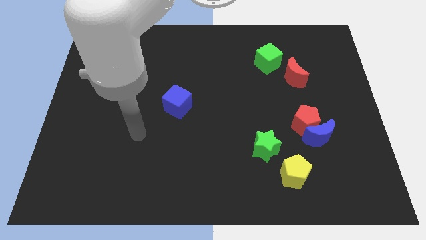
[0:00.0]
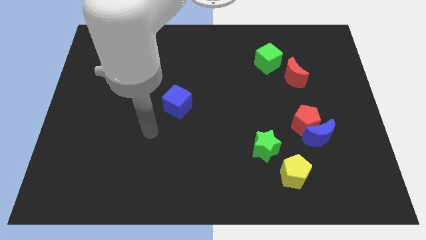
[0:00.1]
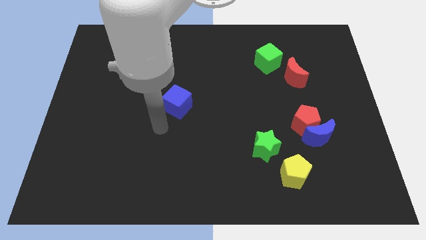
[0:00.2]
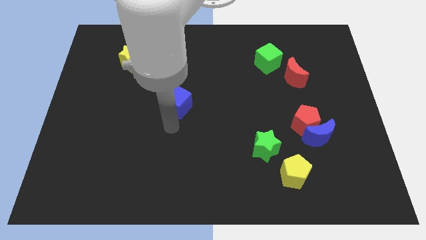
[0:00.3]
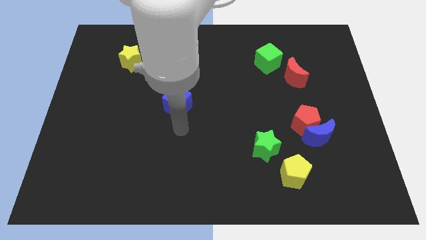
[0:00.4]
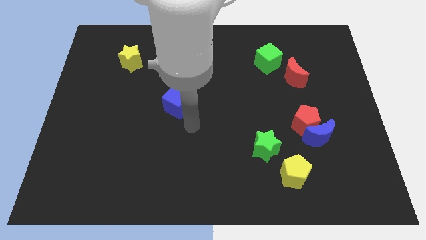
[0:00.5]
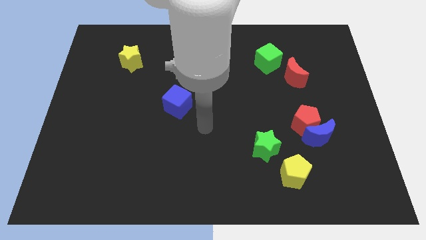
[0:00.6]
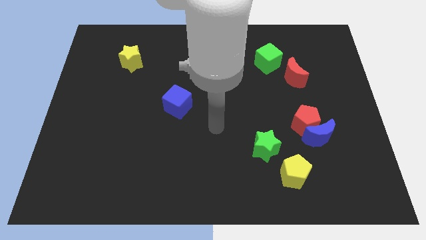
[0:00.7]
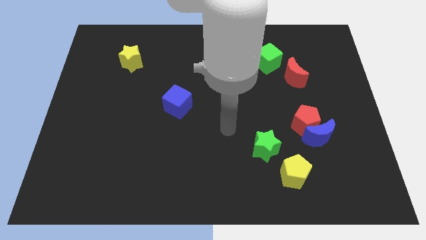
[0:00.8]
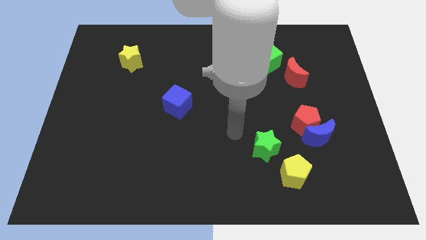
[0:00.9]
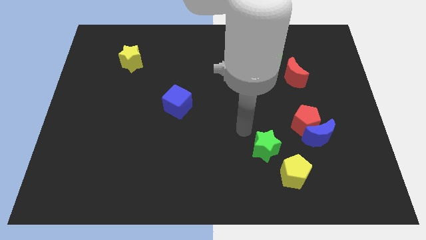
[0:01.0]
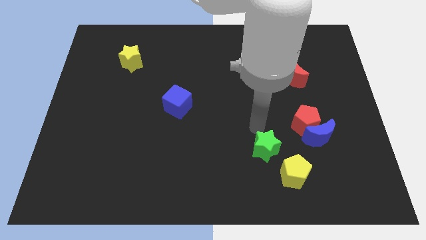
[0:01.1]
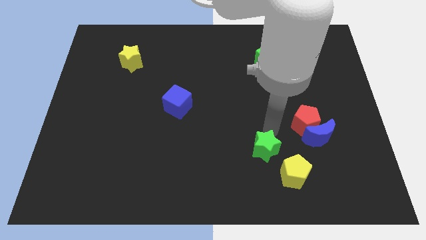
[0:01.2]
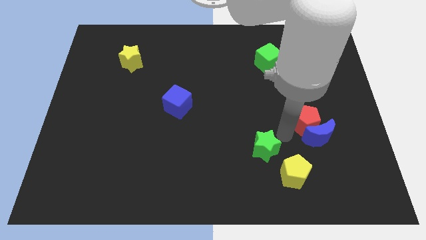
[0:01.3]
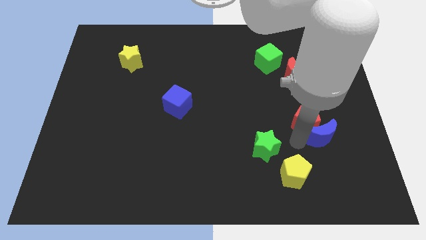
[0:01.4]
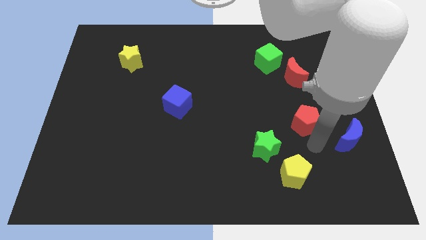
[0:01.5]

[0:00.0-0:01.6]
separate the red pentagon from the blue moon

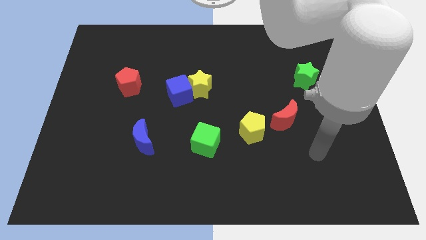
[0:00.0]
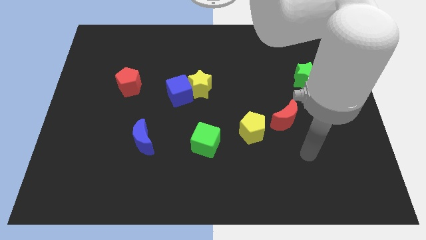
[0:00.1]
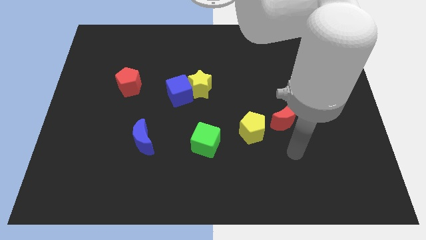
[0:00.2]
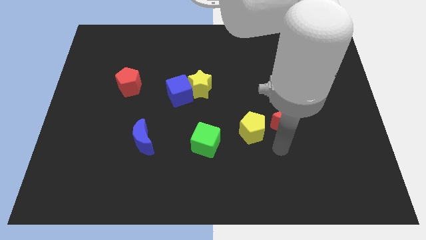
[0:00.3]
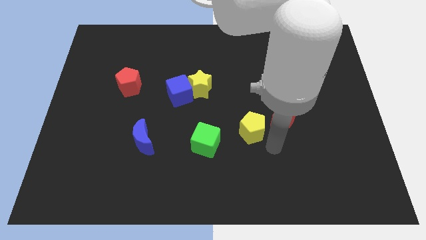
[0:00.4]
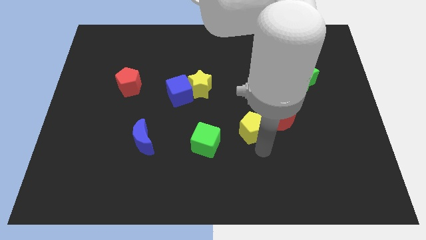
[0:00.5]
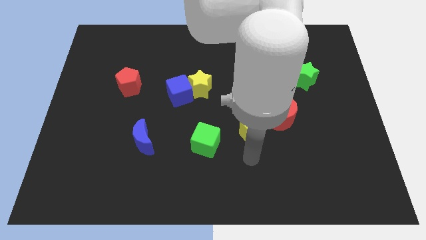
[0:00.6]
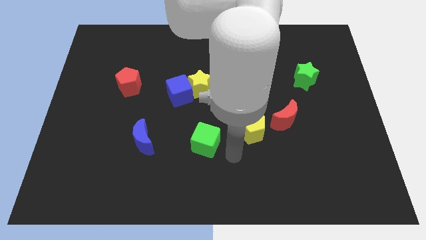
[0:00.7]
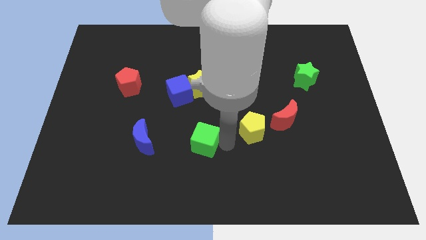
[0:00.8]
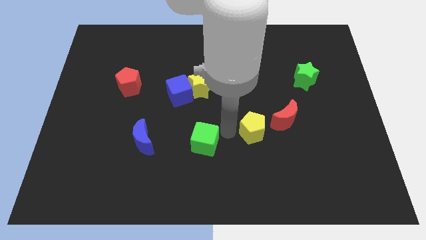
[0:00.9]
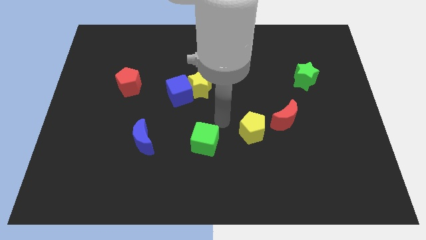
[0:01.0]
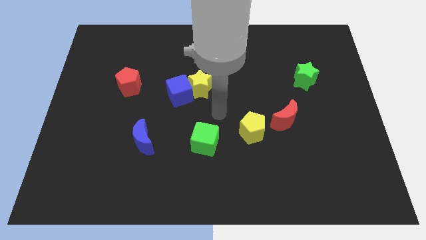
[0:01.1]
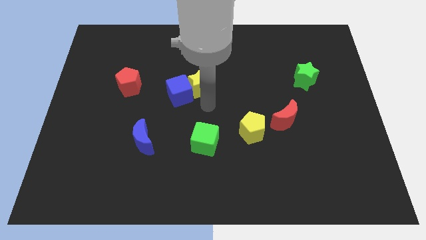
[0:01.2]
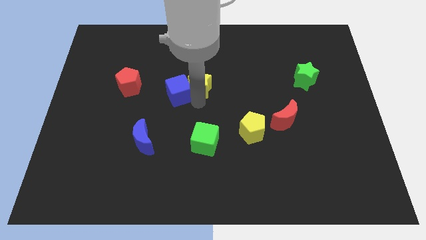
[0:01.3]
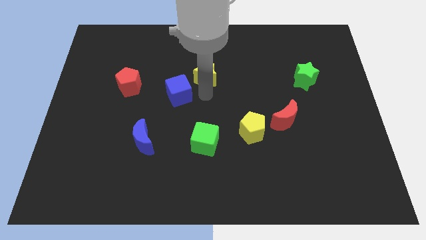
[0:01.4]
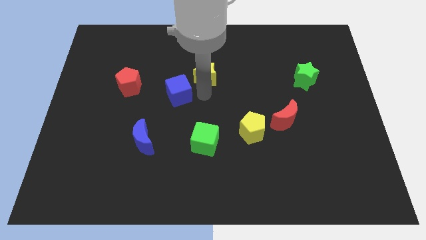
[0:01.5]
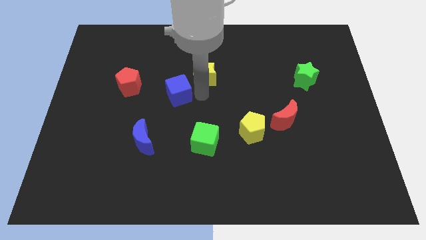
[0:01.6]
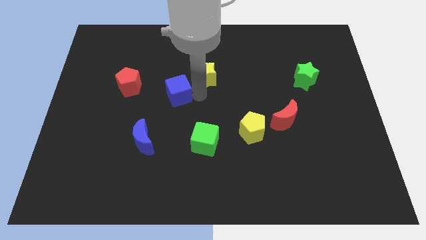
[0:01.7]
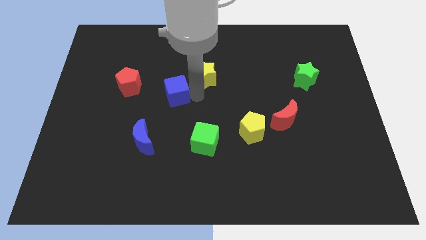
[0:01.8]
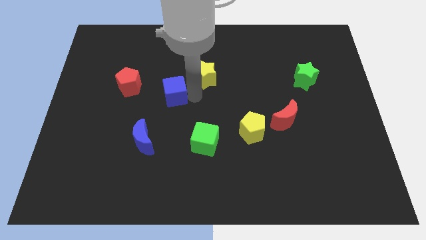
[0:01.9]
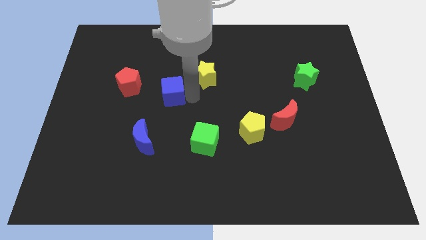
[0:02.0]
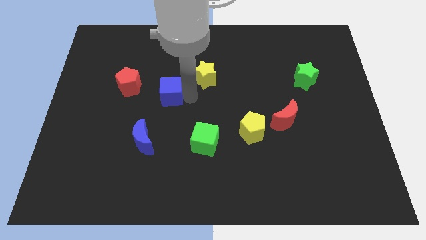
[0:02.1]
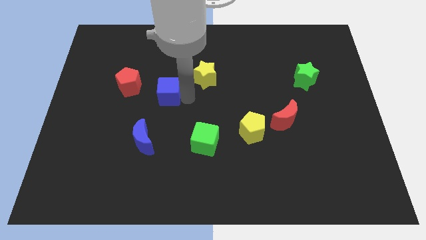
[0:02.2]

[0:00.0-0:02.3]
pull the blue cube apart from the yellow star

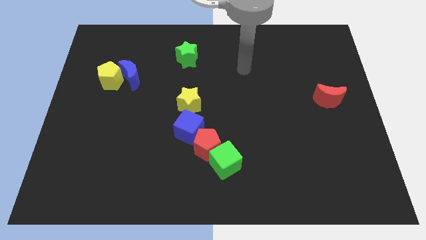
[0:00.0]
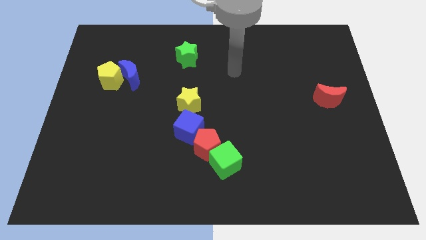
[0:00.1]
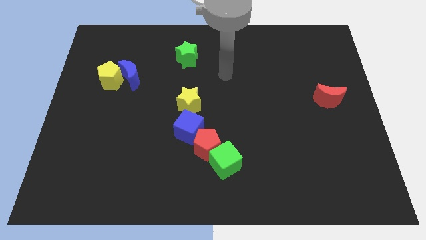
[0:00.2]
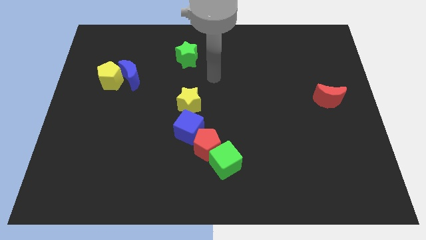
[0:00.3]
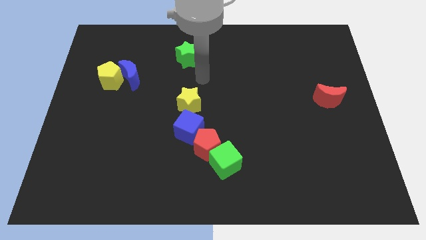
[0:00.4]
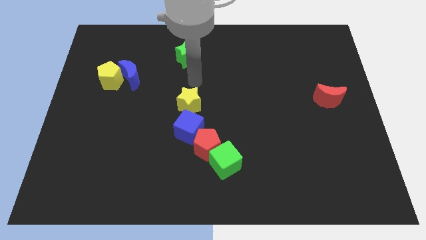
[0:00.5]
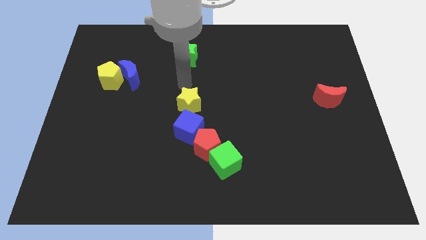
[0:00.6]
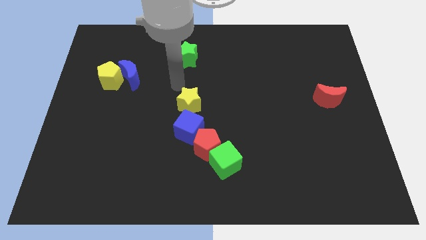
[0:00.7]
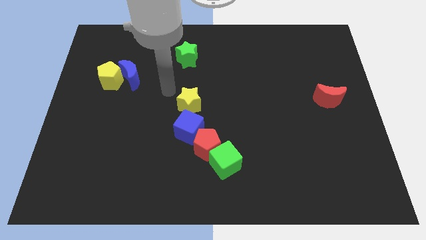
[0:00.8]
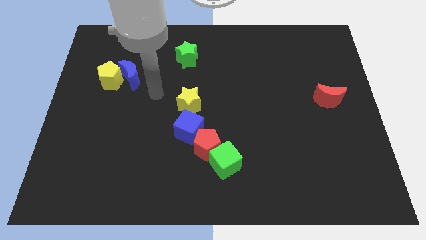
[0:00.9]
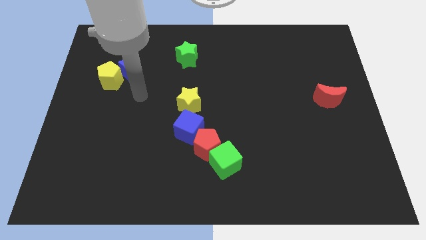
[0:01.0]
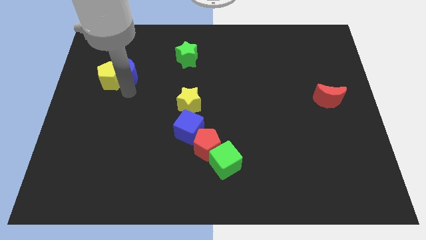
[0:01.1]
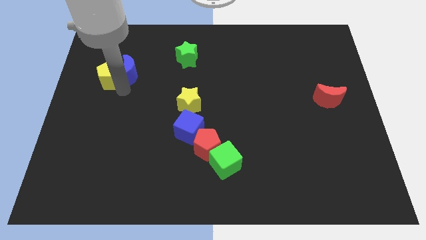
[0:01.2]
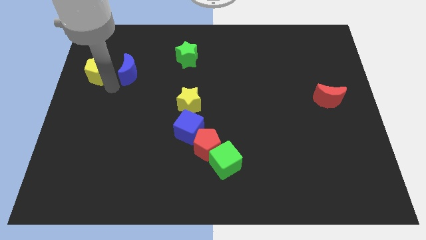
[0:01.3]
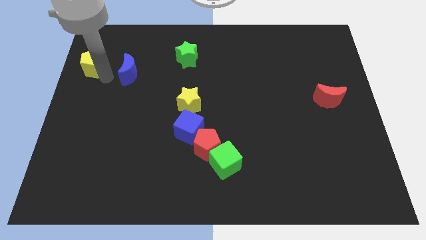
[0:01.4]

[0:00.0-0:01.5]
separate the blue moon from the yellow pentagon

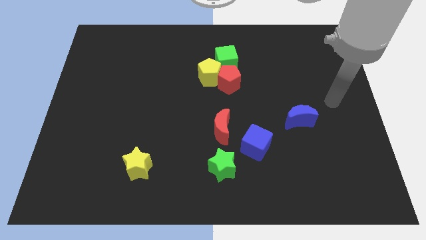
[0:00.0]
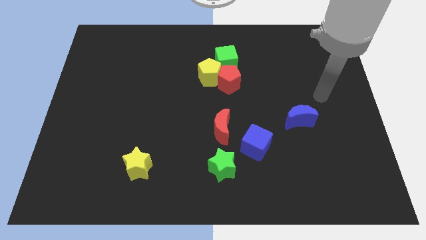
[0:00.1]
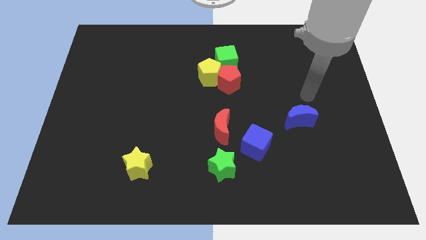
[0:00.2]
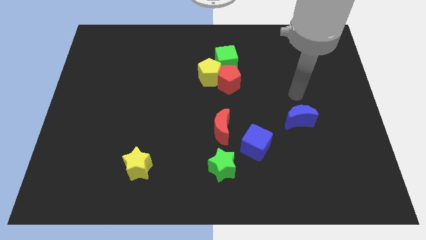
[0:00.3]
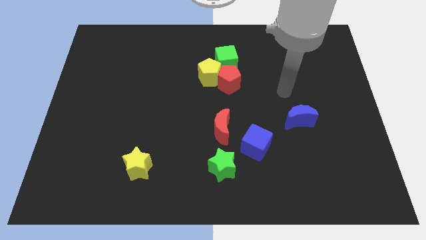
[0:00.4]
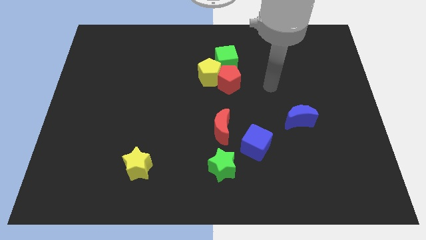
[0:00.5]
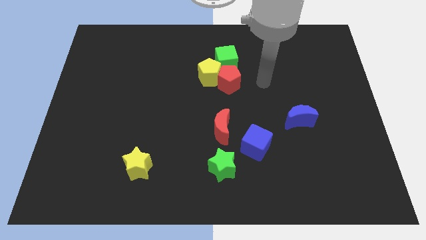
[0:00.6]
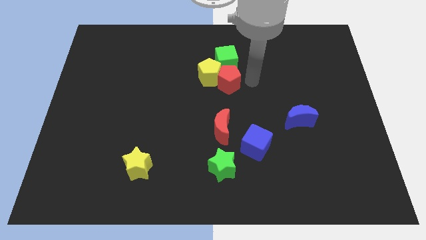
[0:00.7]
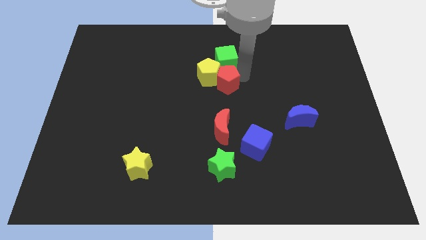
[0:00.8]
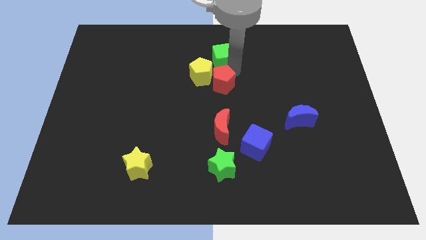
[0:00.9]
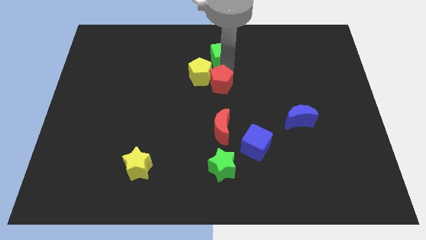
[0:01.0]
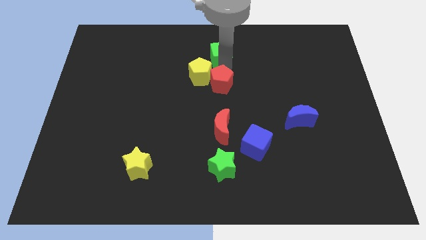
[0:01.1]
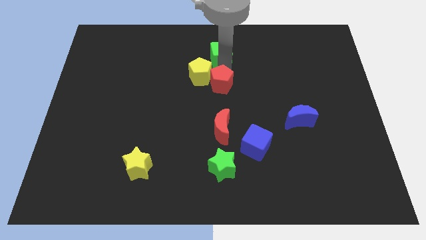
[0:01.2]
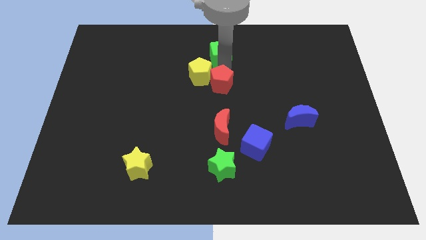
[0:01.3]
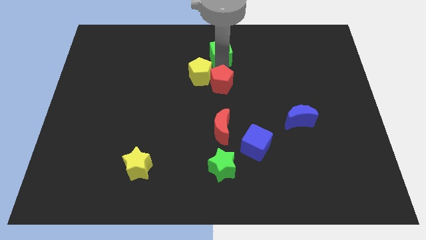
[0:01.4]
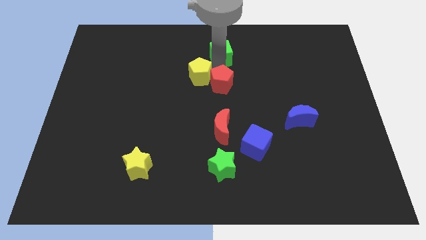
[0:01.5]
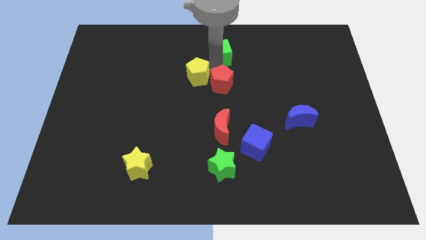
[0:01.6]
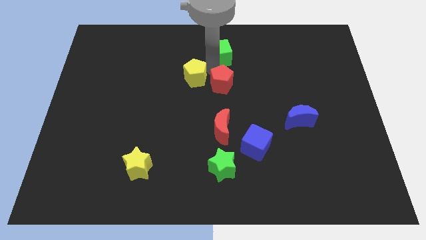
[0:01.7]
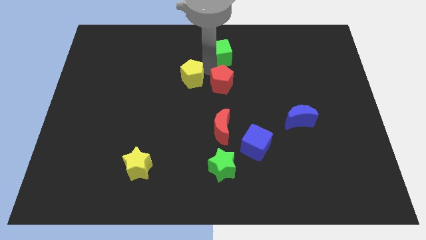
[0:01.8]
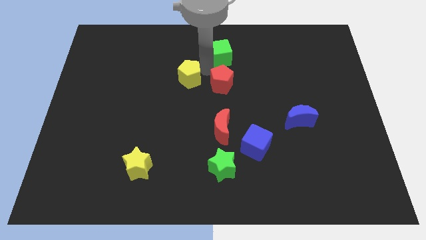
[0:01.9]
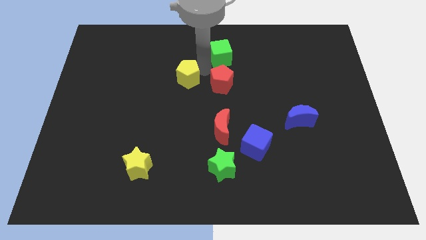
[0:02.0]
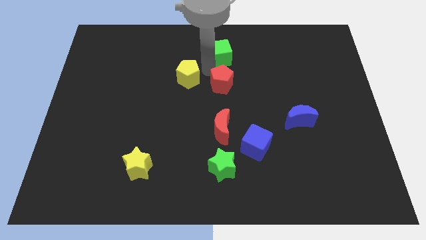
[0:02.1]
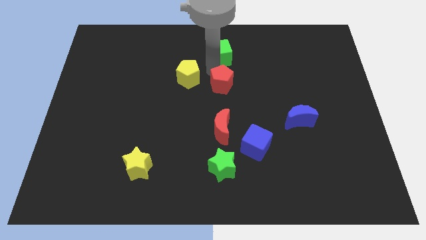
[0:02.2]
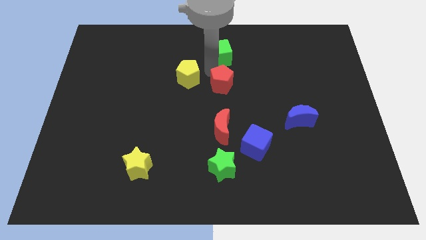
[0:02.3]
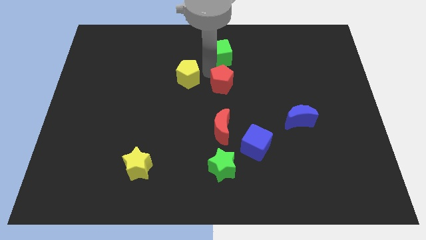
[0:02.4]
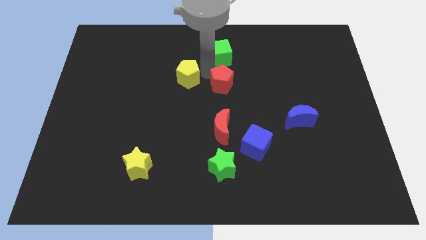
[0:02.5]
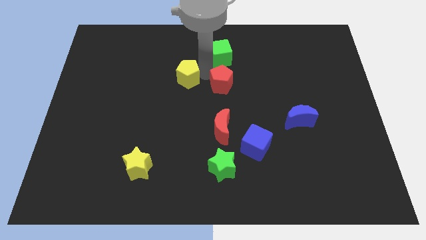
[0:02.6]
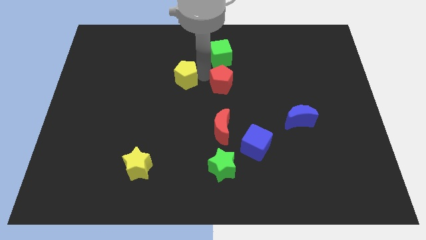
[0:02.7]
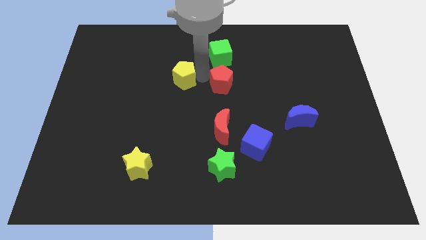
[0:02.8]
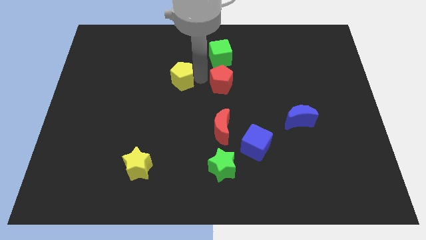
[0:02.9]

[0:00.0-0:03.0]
move the yellow pentagon away from the red pentagon and green cube

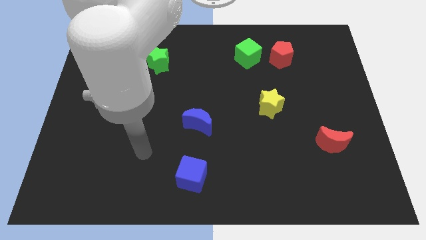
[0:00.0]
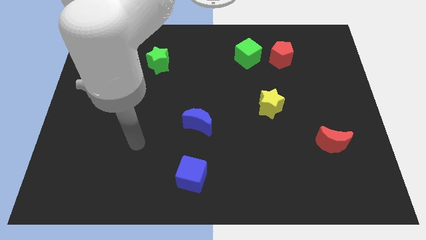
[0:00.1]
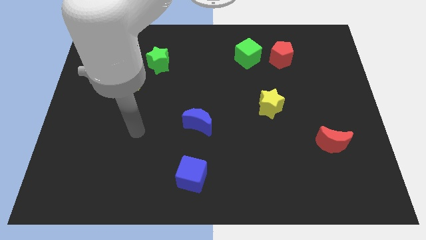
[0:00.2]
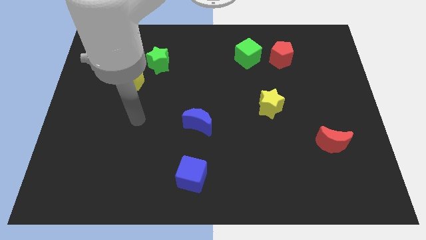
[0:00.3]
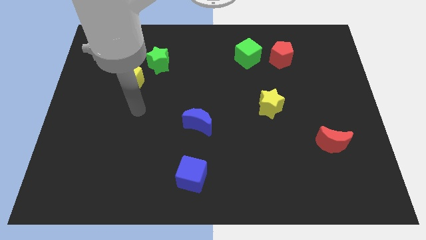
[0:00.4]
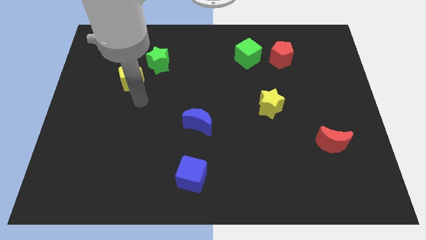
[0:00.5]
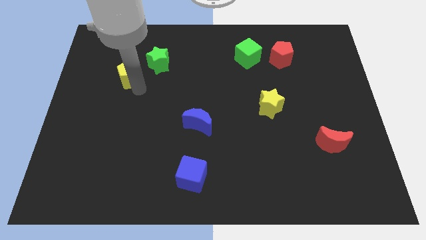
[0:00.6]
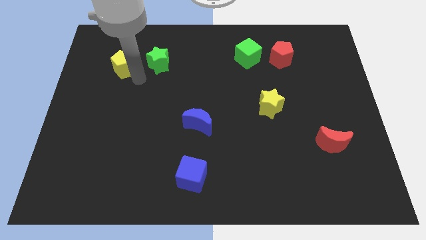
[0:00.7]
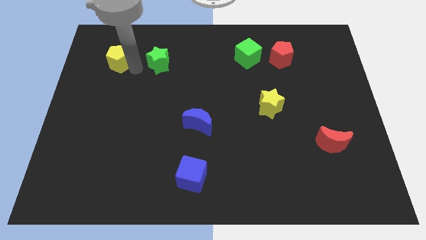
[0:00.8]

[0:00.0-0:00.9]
move the green star away from the yellow pentagon
